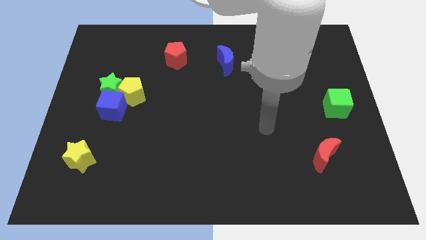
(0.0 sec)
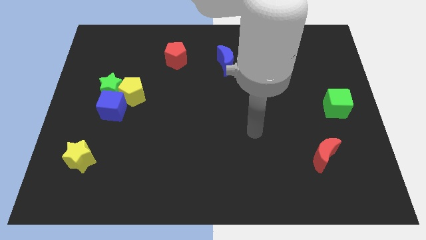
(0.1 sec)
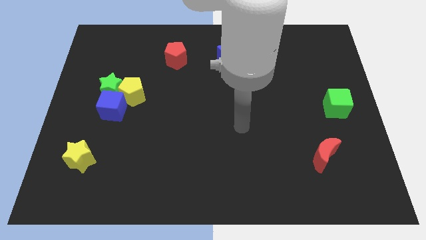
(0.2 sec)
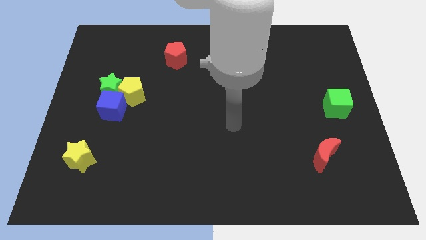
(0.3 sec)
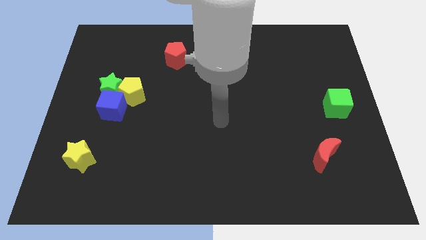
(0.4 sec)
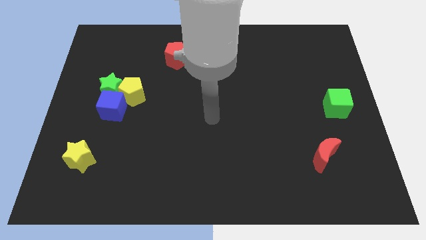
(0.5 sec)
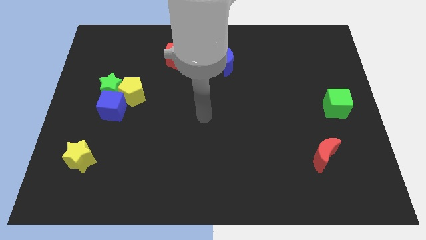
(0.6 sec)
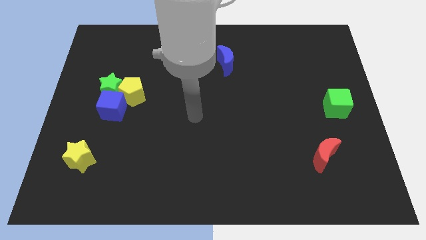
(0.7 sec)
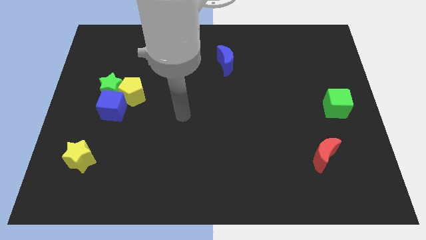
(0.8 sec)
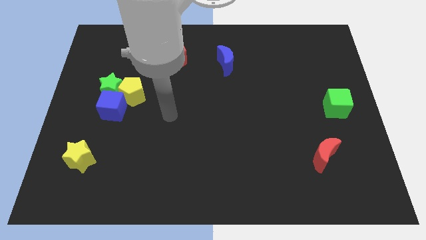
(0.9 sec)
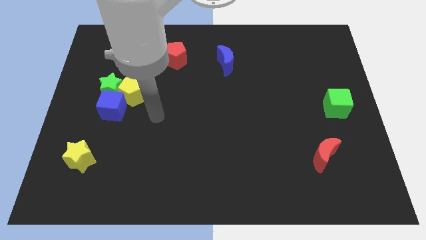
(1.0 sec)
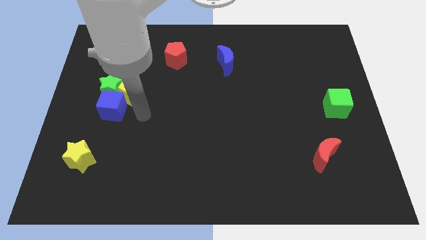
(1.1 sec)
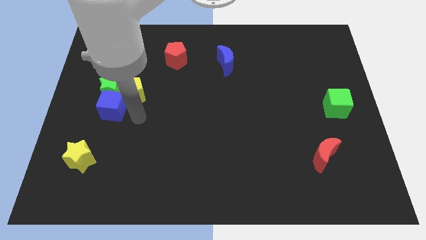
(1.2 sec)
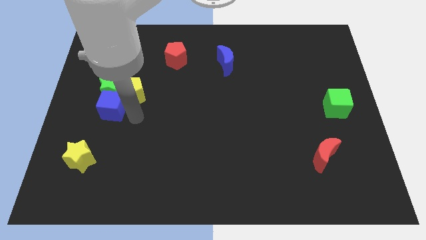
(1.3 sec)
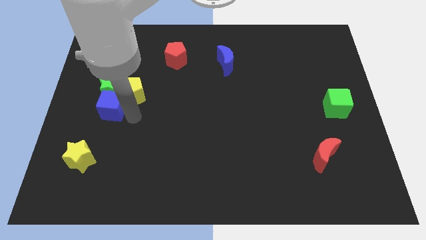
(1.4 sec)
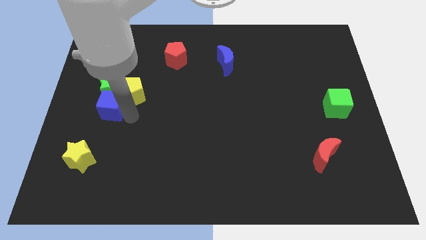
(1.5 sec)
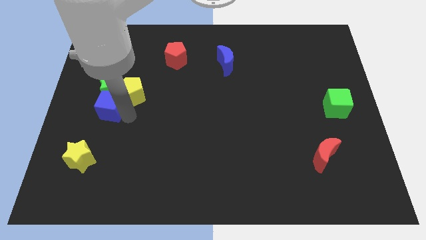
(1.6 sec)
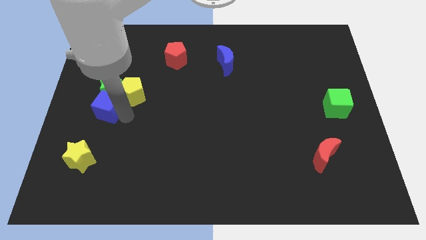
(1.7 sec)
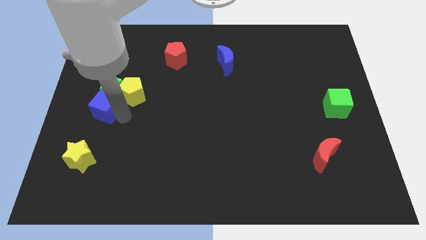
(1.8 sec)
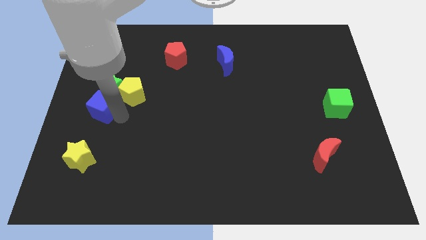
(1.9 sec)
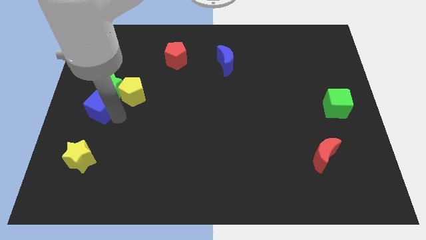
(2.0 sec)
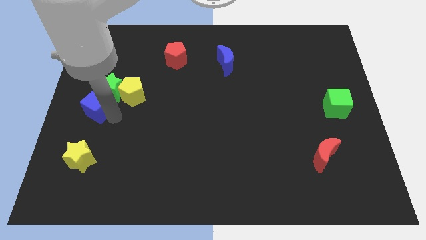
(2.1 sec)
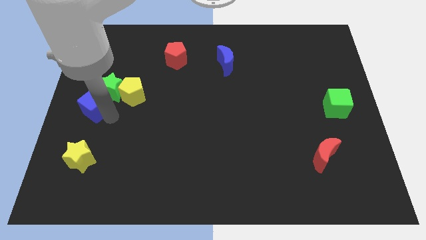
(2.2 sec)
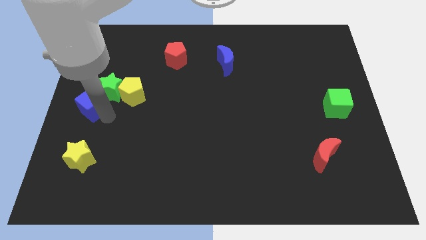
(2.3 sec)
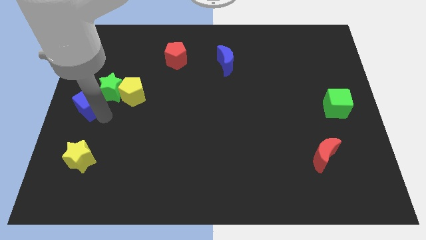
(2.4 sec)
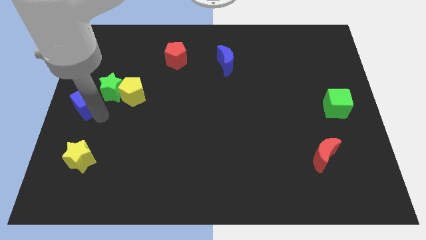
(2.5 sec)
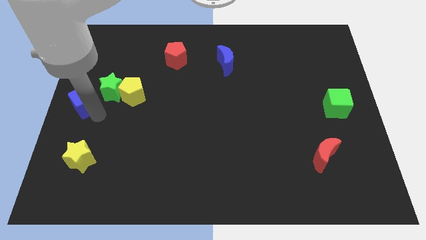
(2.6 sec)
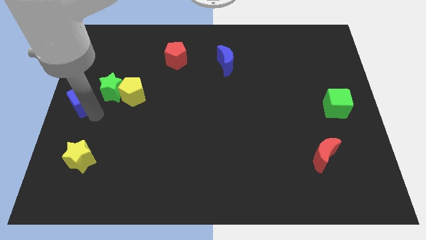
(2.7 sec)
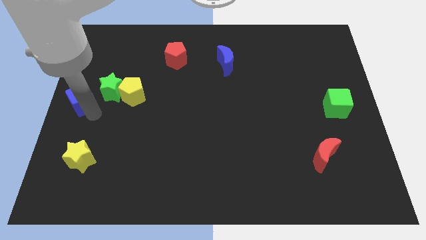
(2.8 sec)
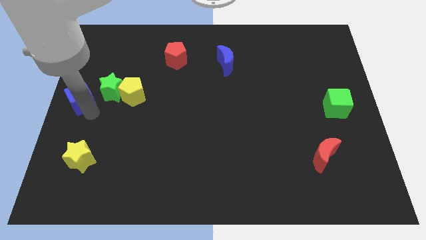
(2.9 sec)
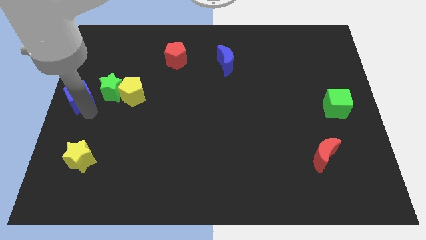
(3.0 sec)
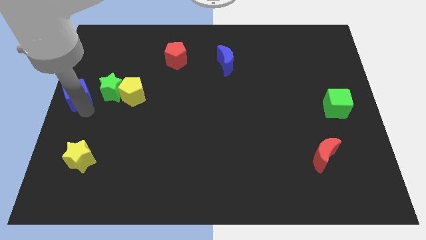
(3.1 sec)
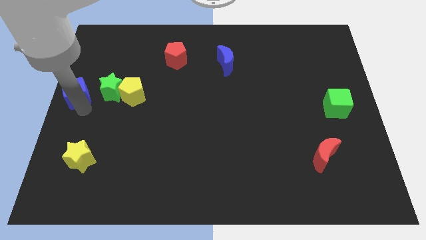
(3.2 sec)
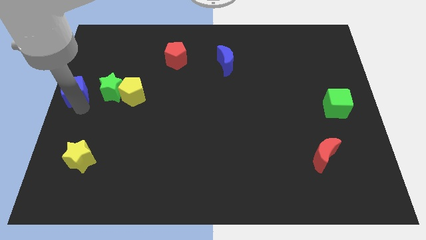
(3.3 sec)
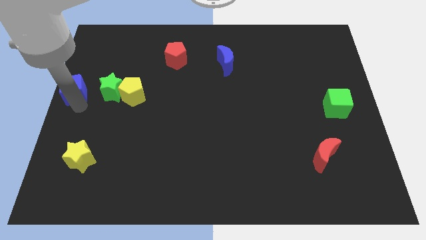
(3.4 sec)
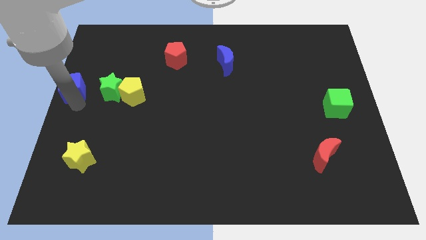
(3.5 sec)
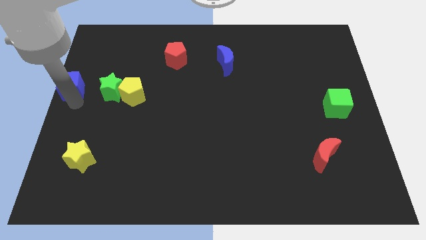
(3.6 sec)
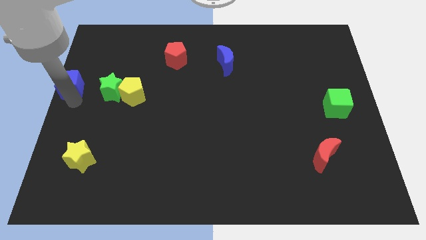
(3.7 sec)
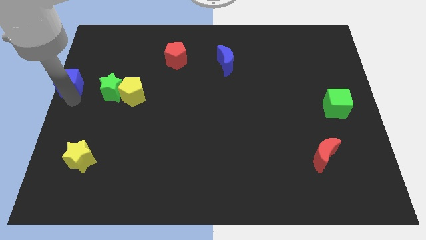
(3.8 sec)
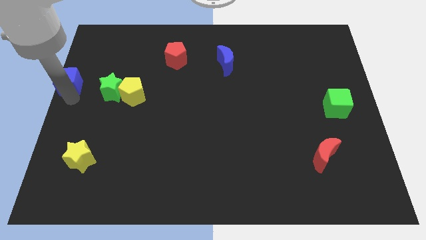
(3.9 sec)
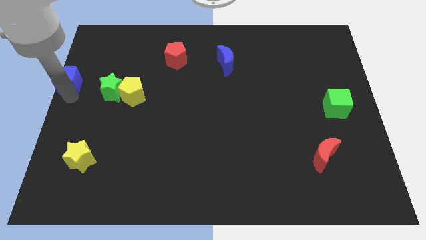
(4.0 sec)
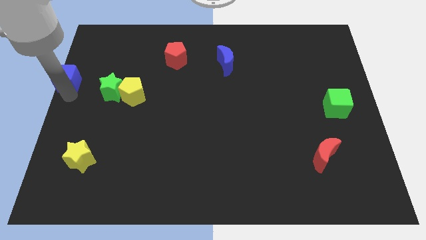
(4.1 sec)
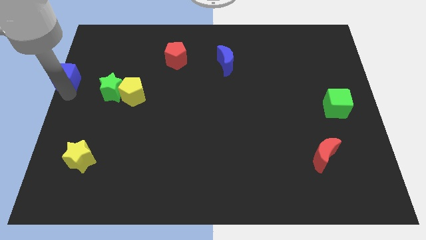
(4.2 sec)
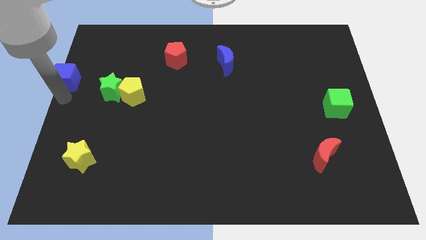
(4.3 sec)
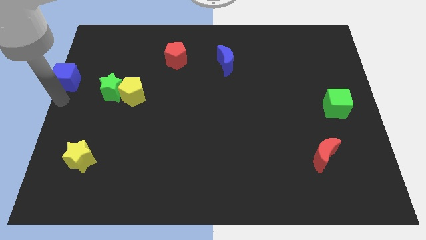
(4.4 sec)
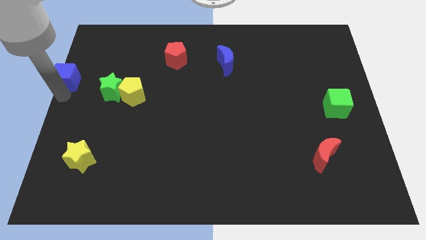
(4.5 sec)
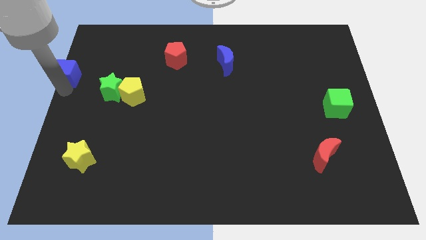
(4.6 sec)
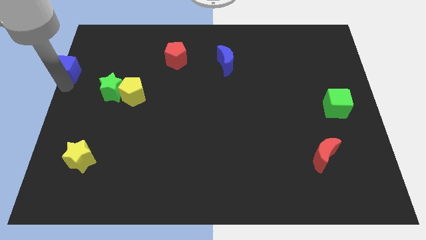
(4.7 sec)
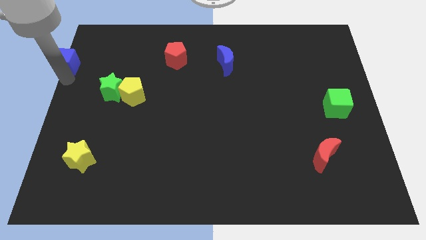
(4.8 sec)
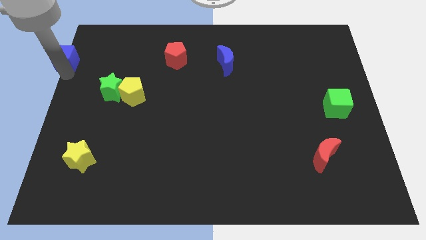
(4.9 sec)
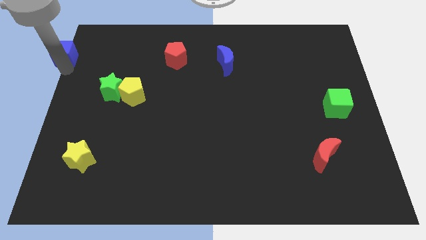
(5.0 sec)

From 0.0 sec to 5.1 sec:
push the blue cube to the top left

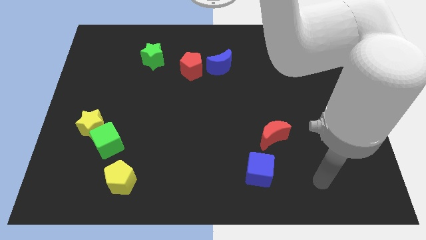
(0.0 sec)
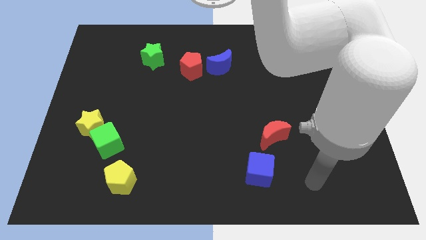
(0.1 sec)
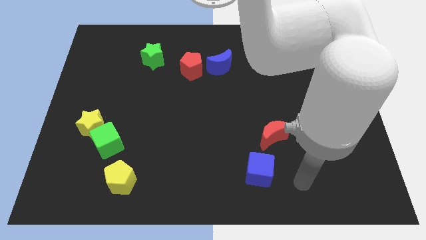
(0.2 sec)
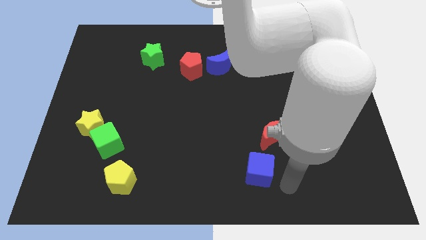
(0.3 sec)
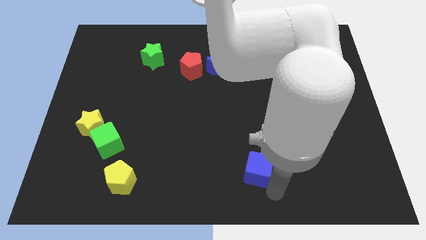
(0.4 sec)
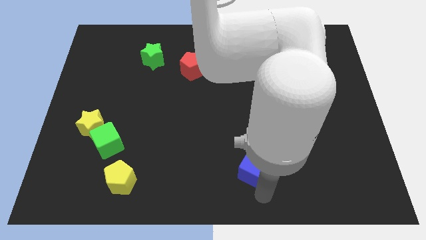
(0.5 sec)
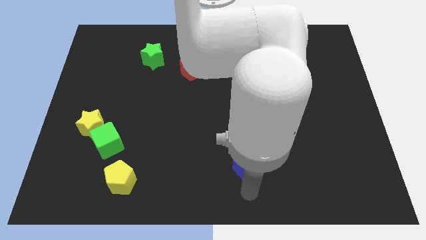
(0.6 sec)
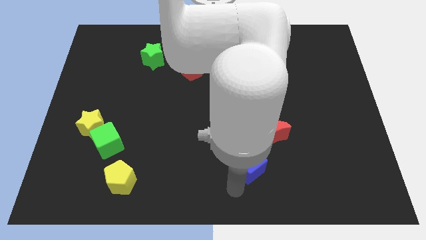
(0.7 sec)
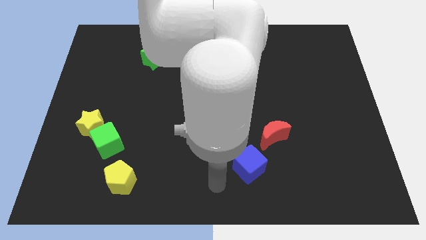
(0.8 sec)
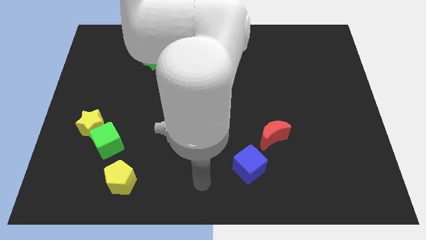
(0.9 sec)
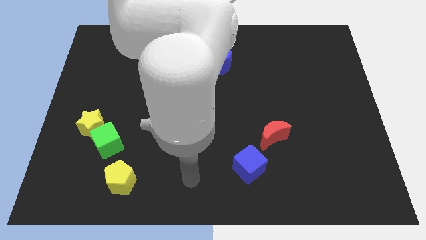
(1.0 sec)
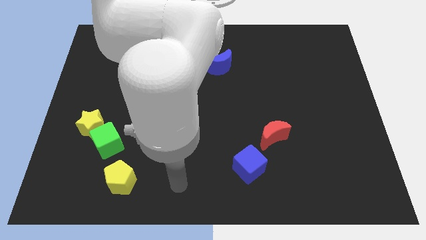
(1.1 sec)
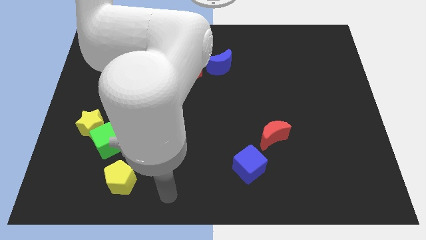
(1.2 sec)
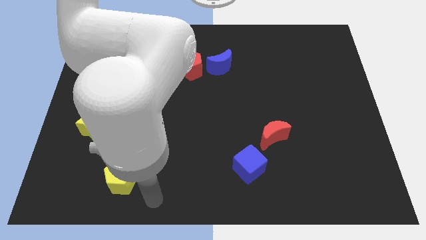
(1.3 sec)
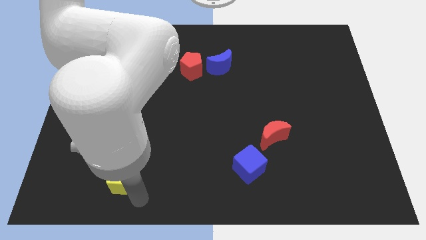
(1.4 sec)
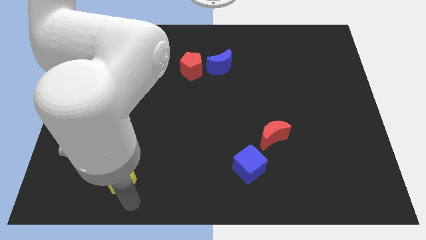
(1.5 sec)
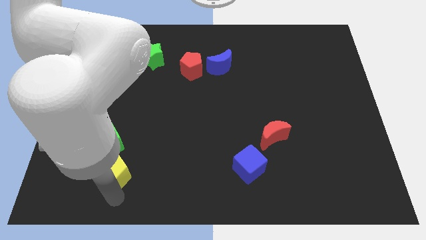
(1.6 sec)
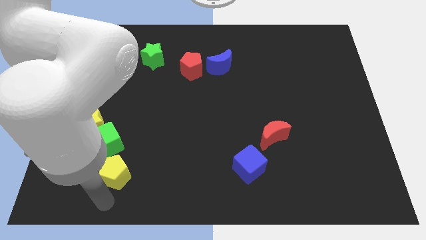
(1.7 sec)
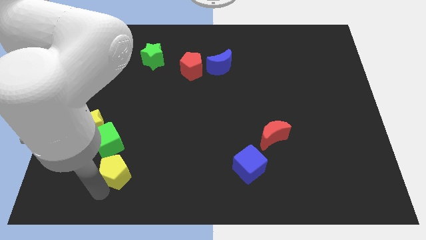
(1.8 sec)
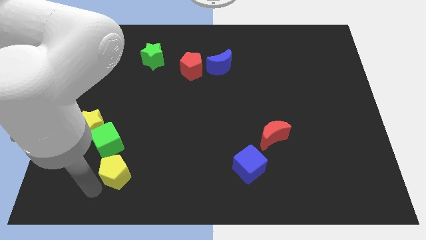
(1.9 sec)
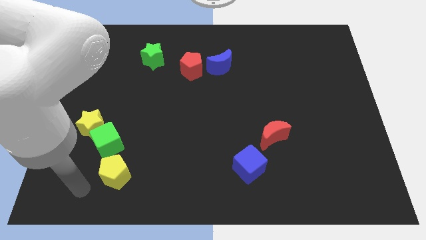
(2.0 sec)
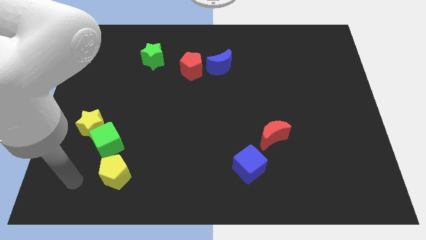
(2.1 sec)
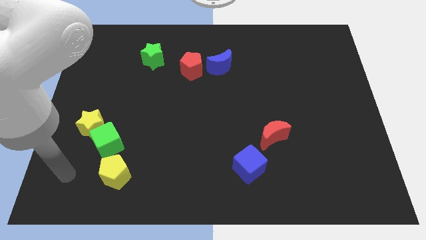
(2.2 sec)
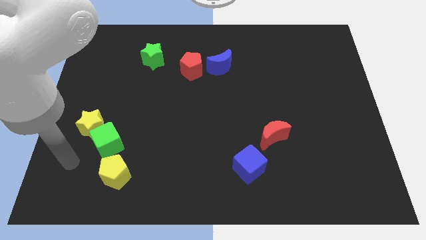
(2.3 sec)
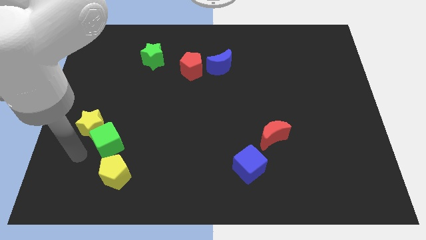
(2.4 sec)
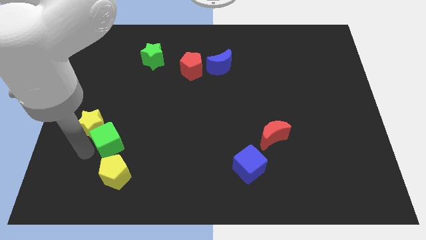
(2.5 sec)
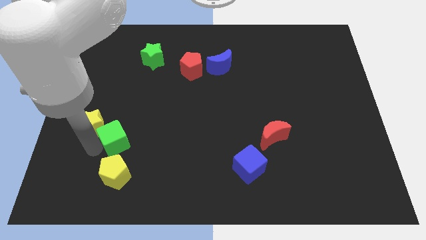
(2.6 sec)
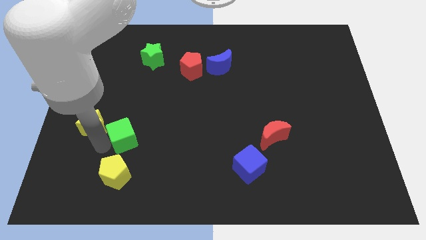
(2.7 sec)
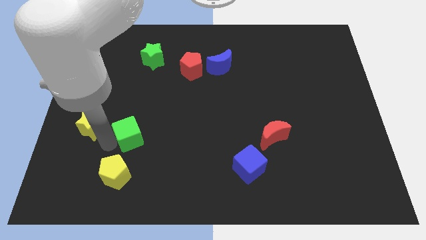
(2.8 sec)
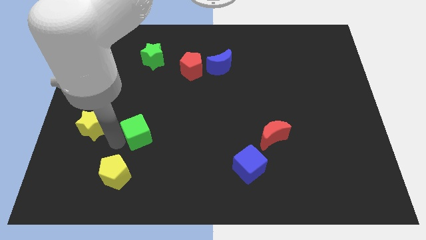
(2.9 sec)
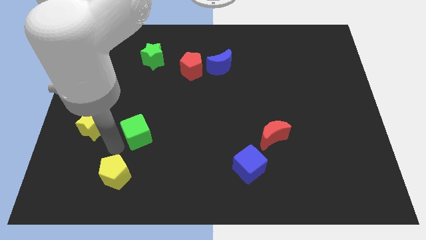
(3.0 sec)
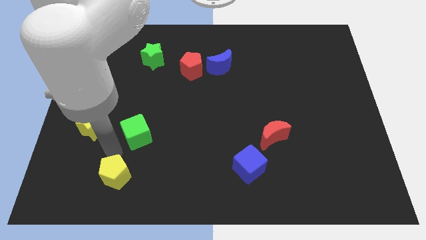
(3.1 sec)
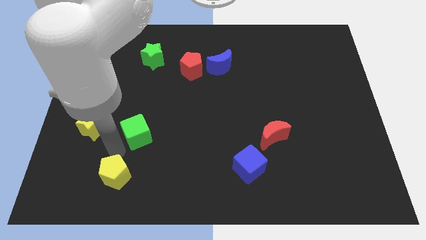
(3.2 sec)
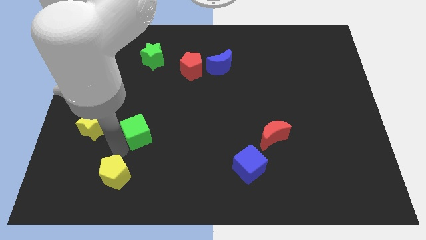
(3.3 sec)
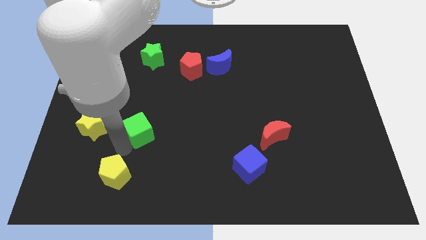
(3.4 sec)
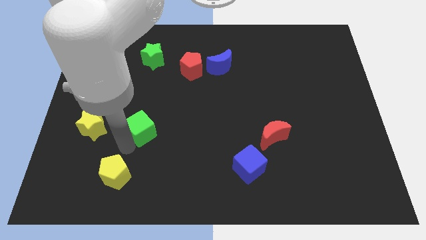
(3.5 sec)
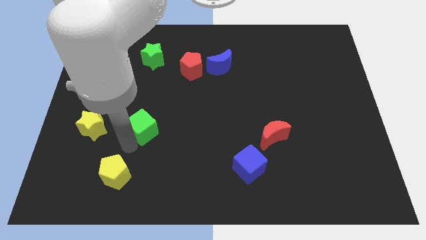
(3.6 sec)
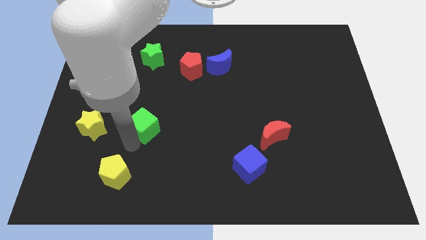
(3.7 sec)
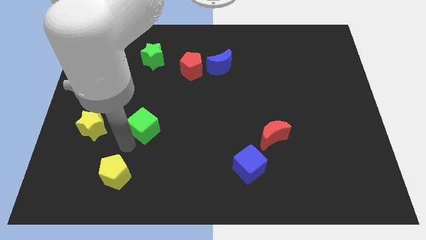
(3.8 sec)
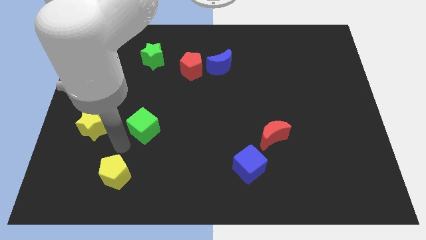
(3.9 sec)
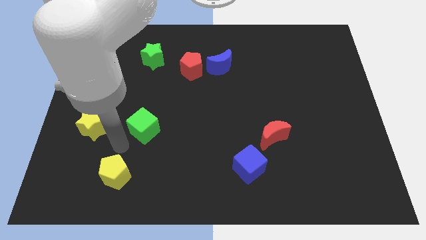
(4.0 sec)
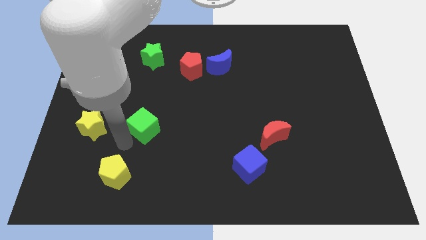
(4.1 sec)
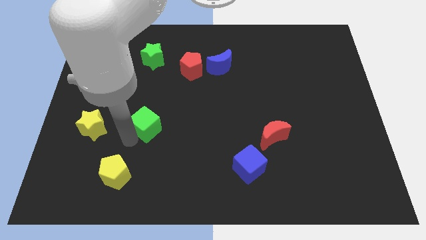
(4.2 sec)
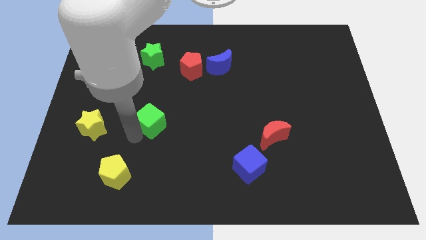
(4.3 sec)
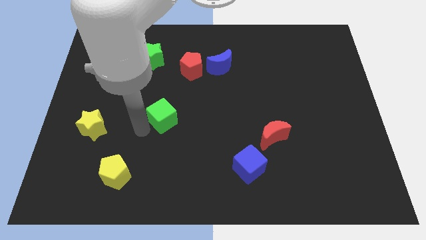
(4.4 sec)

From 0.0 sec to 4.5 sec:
slide the green cube to the center
